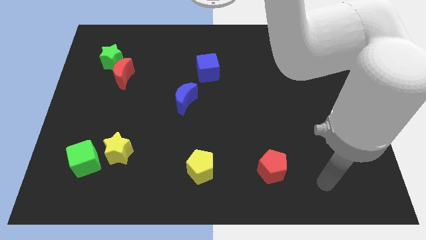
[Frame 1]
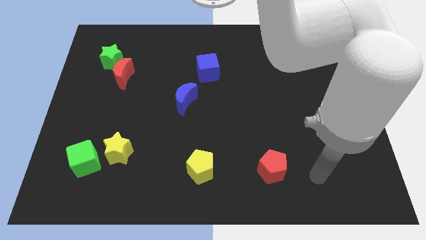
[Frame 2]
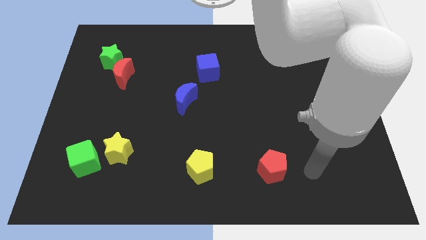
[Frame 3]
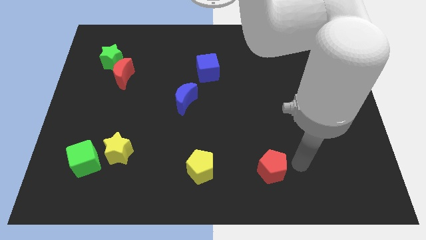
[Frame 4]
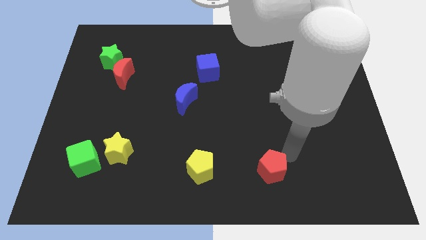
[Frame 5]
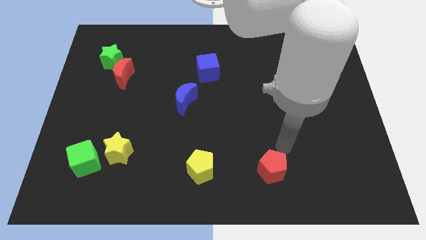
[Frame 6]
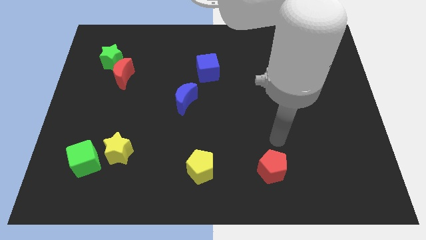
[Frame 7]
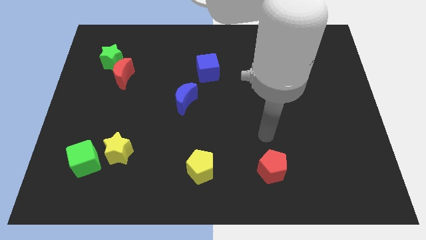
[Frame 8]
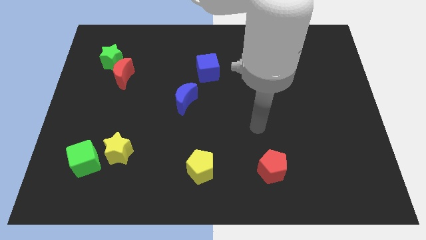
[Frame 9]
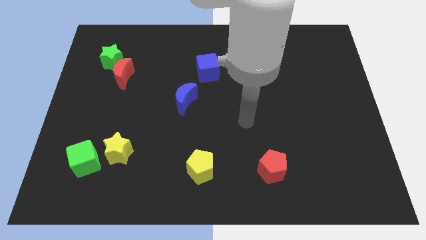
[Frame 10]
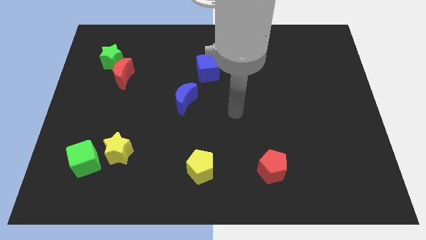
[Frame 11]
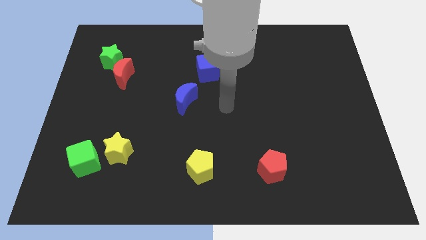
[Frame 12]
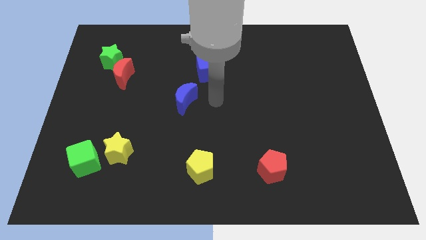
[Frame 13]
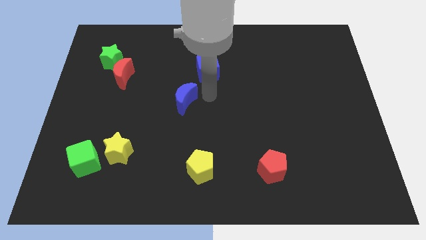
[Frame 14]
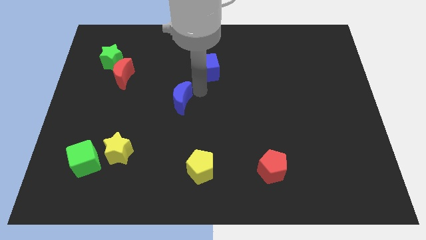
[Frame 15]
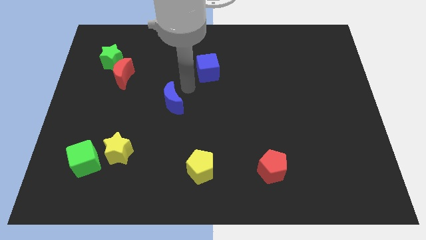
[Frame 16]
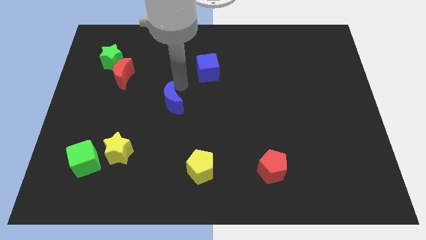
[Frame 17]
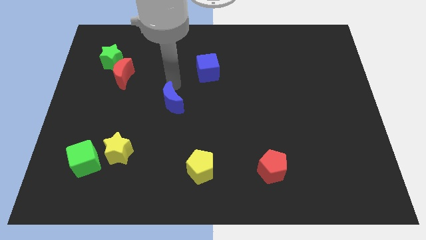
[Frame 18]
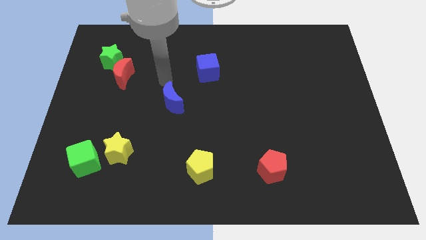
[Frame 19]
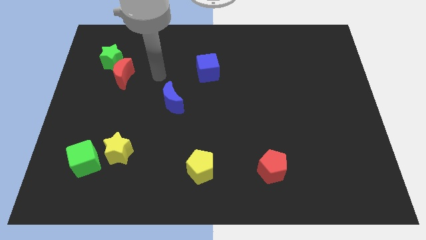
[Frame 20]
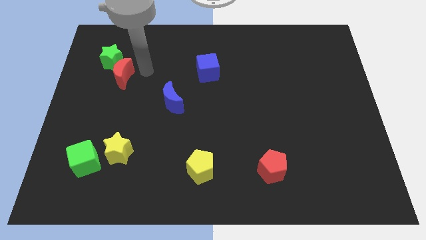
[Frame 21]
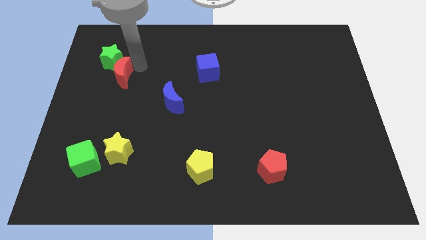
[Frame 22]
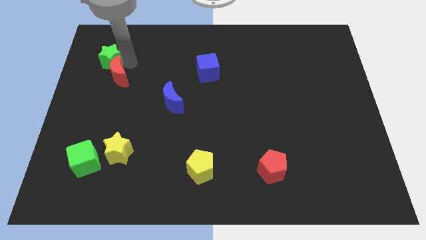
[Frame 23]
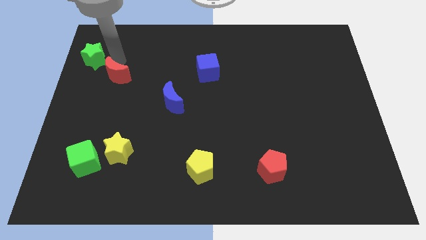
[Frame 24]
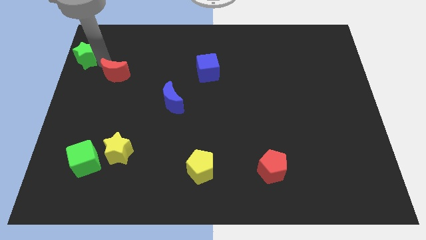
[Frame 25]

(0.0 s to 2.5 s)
pull the red moon apart from the green star

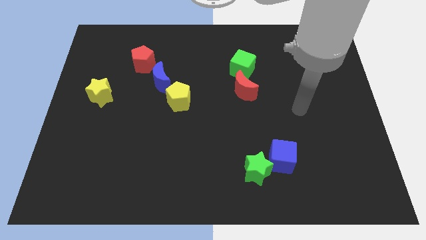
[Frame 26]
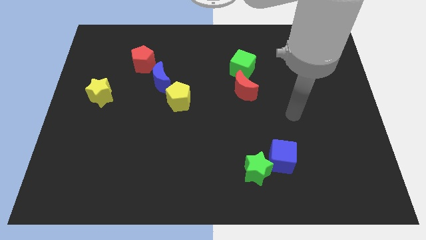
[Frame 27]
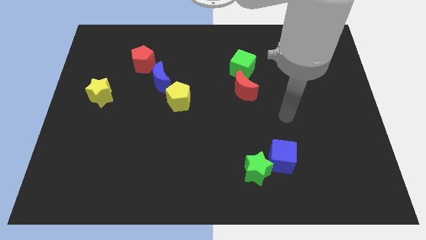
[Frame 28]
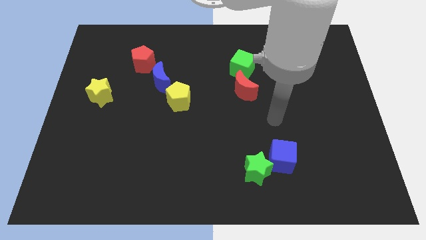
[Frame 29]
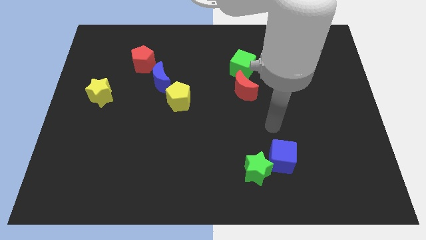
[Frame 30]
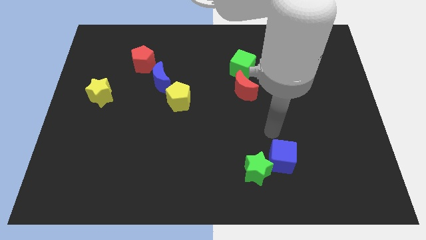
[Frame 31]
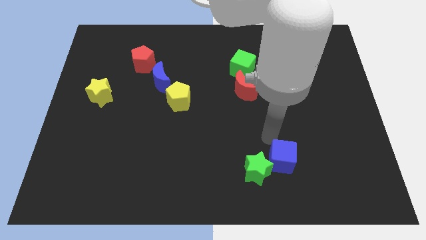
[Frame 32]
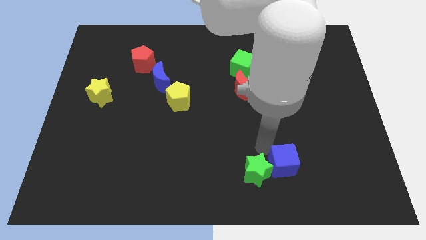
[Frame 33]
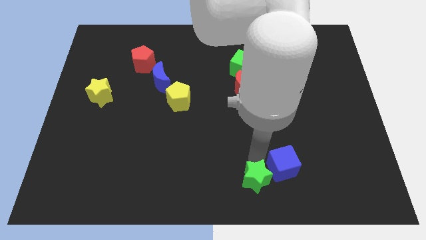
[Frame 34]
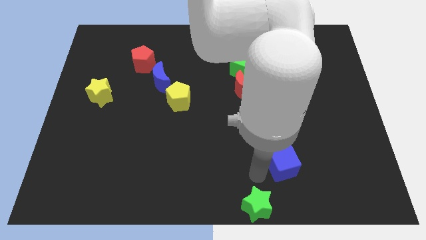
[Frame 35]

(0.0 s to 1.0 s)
pull the blue cube apart from the green star

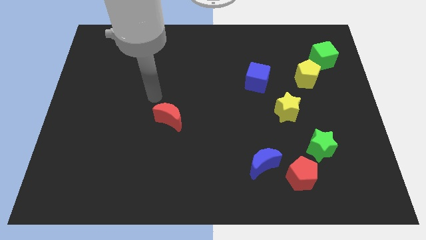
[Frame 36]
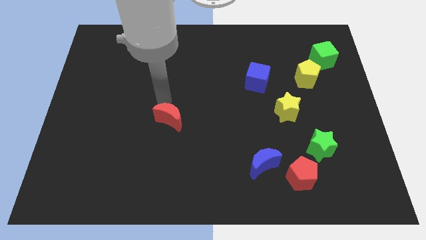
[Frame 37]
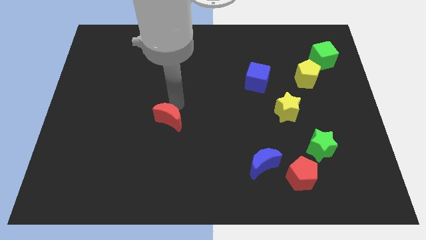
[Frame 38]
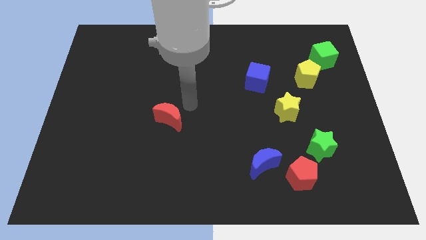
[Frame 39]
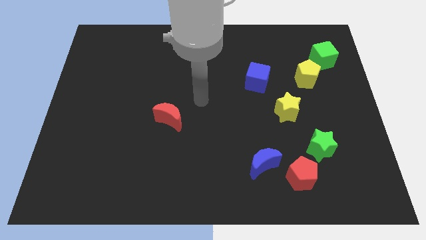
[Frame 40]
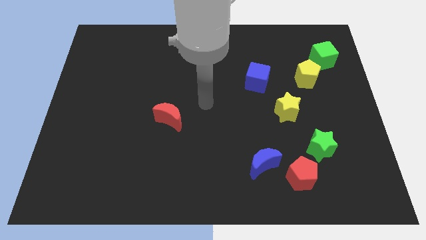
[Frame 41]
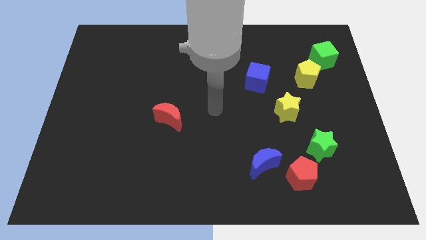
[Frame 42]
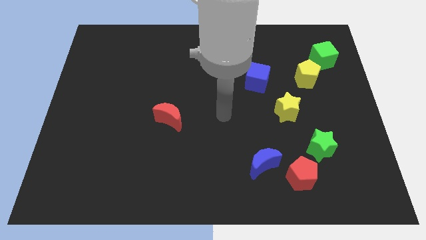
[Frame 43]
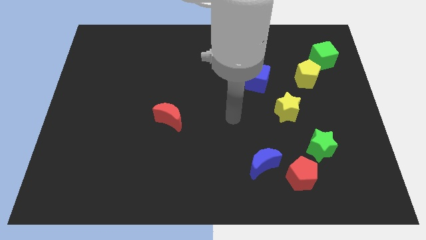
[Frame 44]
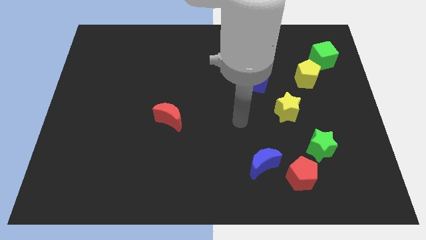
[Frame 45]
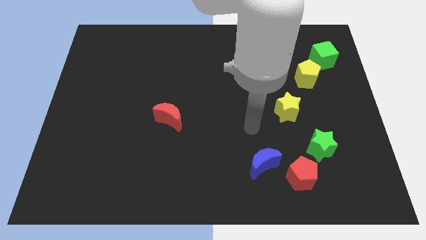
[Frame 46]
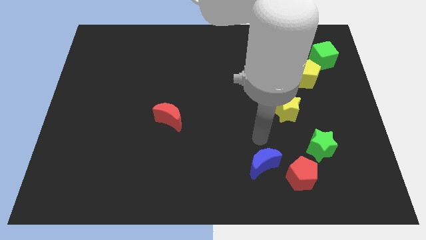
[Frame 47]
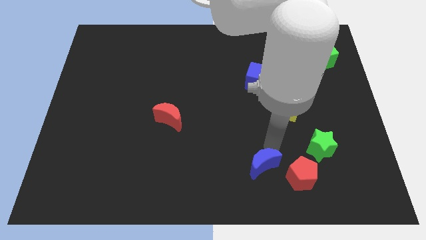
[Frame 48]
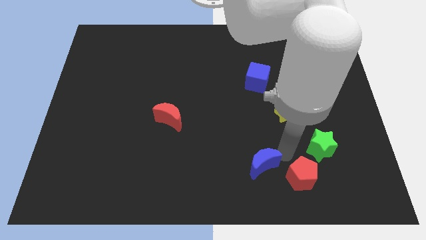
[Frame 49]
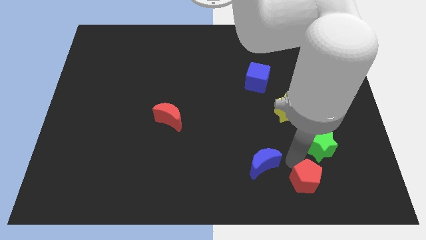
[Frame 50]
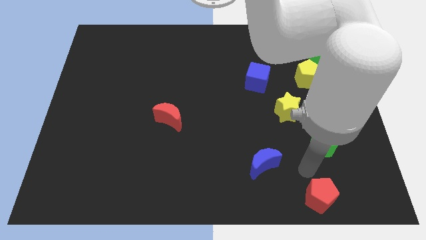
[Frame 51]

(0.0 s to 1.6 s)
separate the green star from the red pentagon
